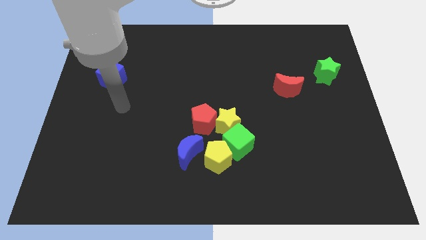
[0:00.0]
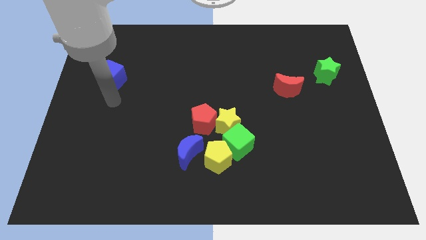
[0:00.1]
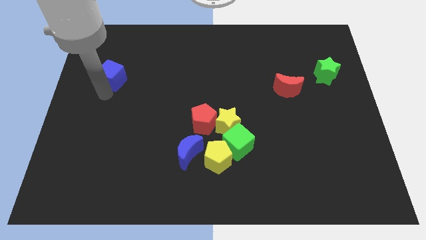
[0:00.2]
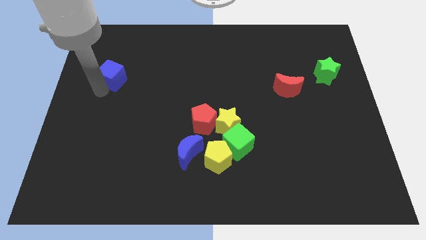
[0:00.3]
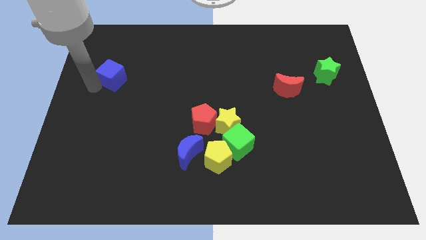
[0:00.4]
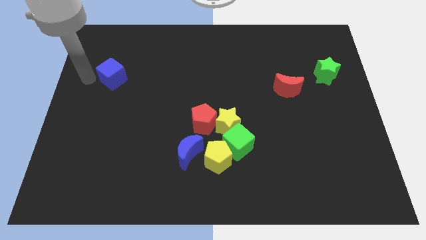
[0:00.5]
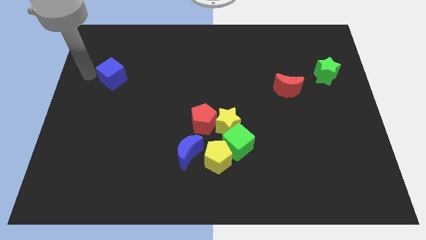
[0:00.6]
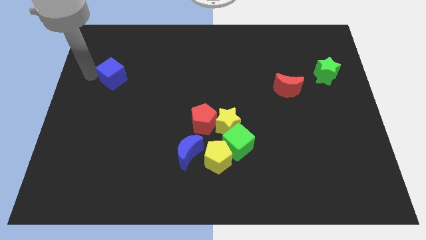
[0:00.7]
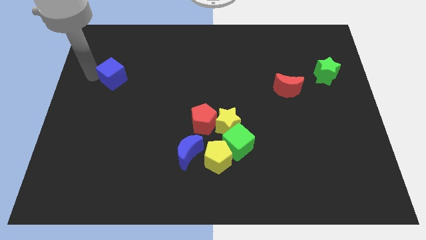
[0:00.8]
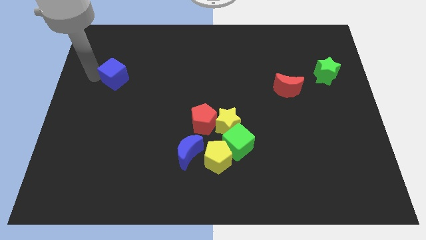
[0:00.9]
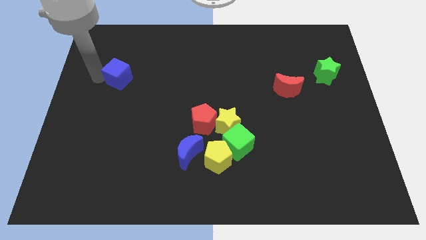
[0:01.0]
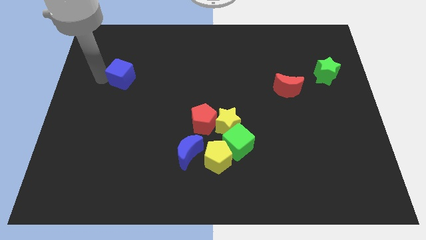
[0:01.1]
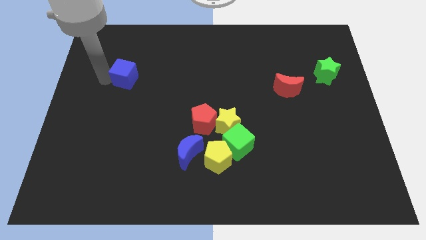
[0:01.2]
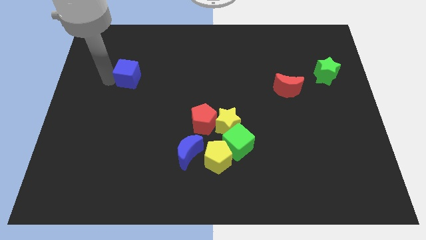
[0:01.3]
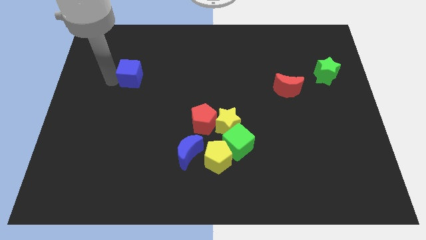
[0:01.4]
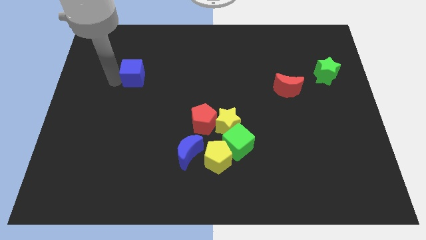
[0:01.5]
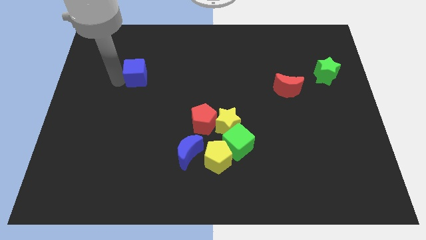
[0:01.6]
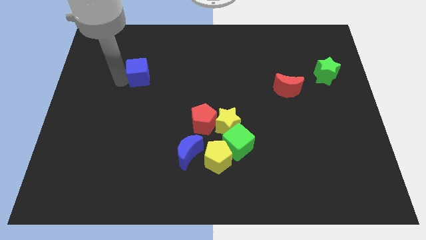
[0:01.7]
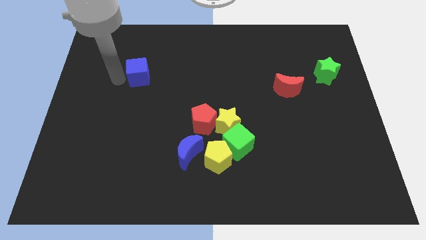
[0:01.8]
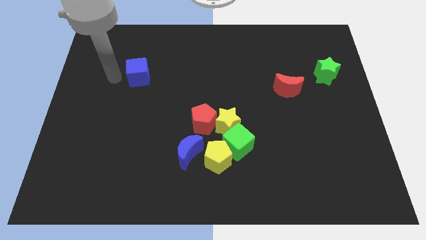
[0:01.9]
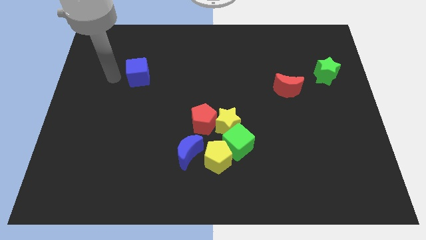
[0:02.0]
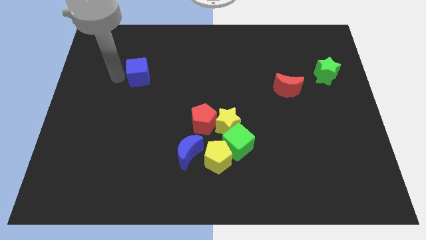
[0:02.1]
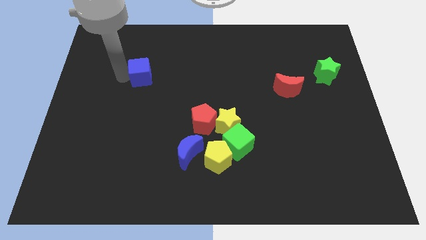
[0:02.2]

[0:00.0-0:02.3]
slide the blue cube to the right somewhat

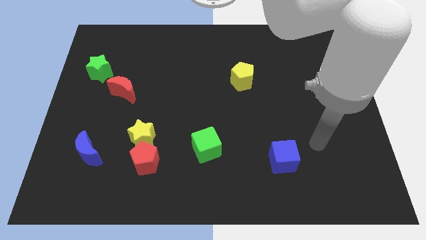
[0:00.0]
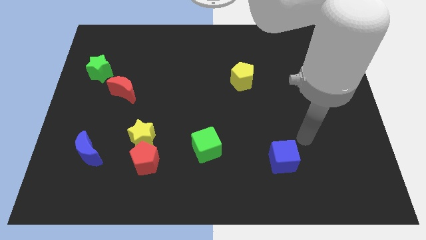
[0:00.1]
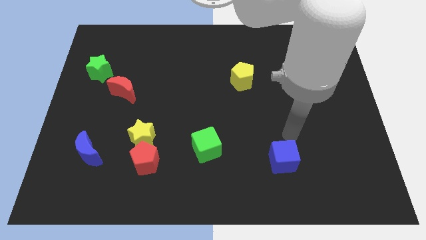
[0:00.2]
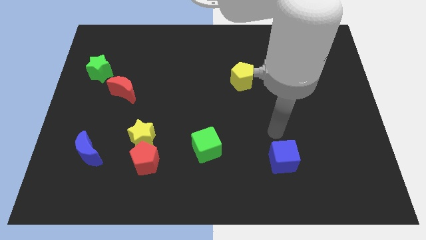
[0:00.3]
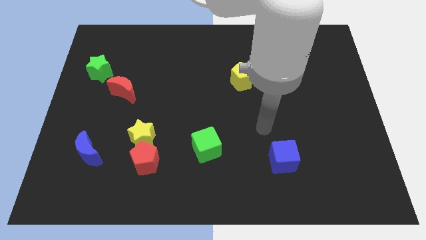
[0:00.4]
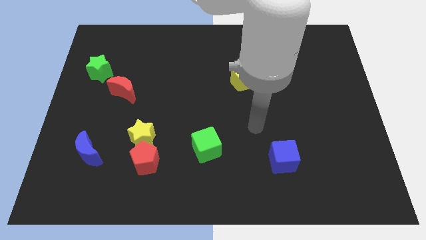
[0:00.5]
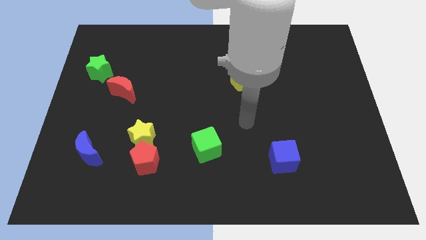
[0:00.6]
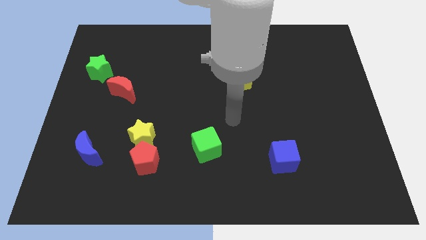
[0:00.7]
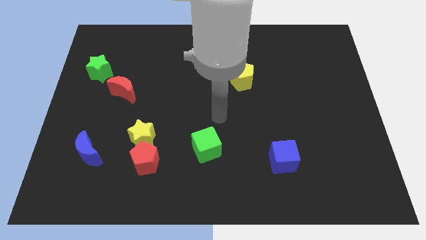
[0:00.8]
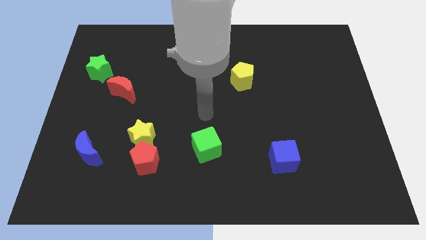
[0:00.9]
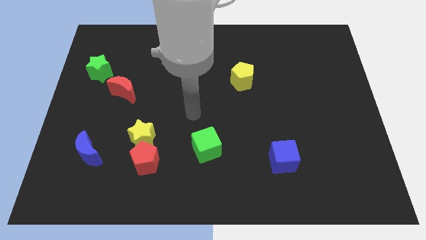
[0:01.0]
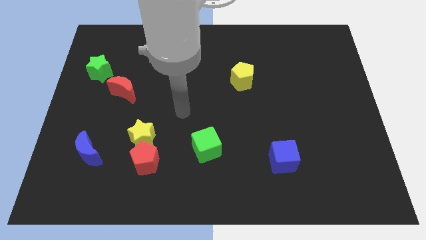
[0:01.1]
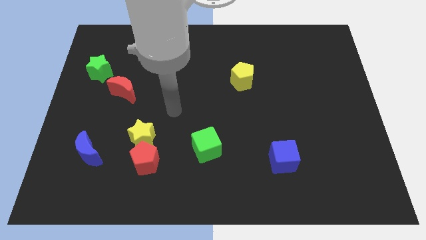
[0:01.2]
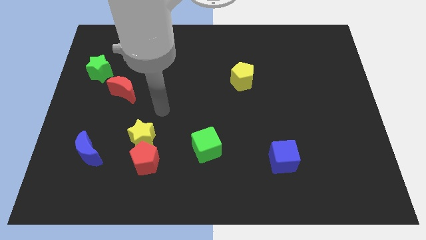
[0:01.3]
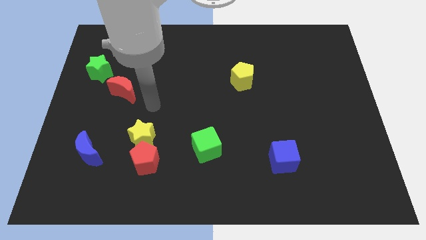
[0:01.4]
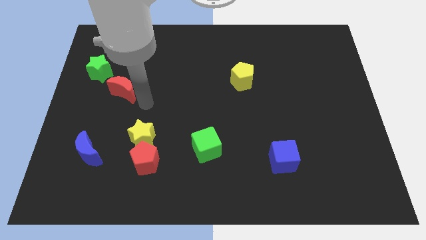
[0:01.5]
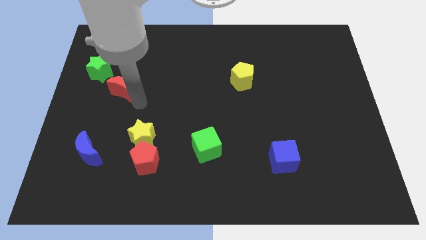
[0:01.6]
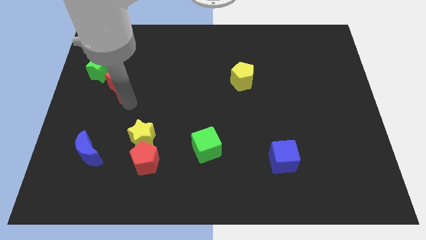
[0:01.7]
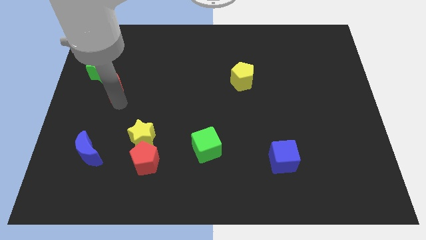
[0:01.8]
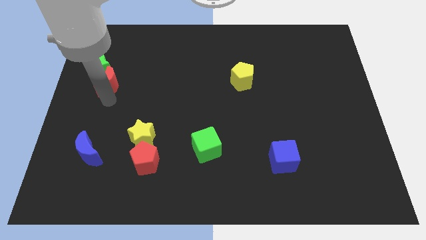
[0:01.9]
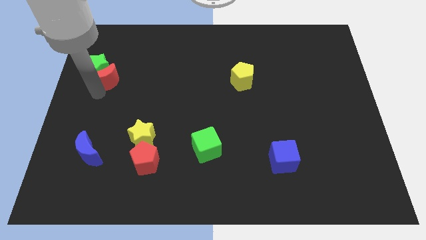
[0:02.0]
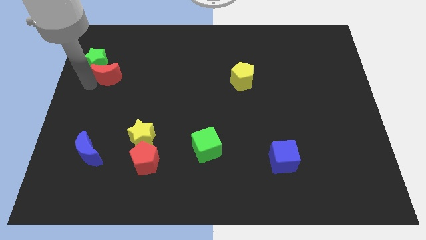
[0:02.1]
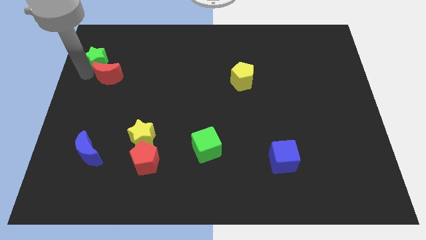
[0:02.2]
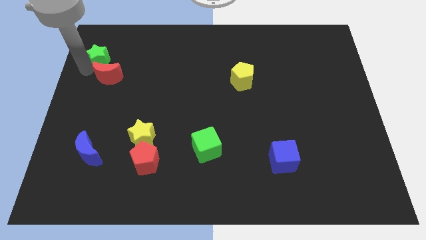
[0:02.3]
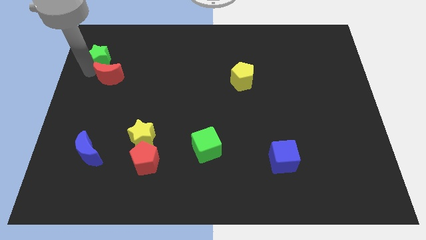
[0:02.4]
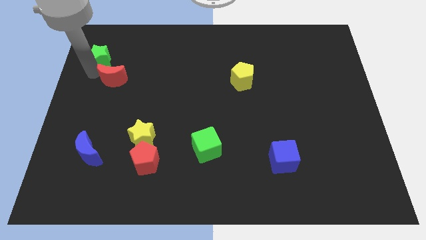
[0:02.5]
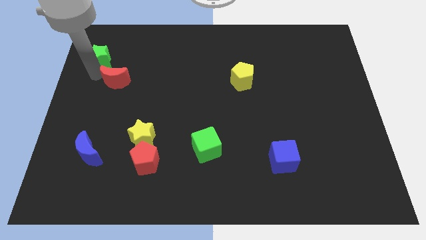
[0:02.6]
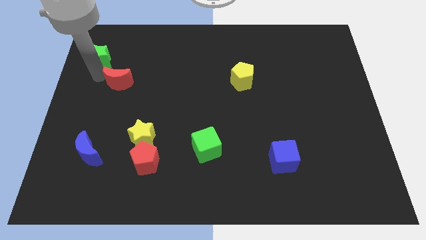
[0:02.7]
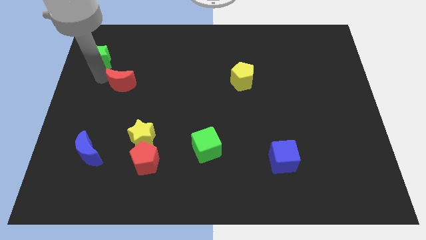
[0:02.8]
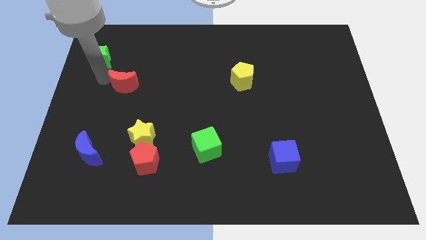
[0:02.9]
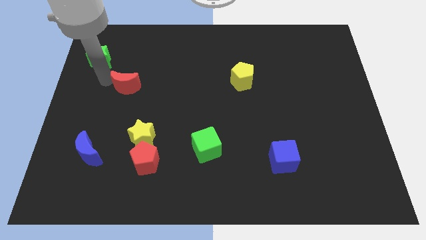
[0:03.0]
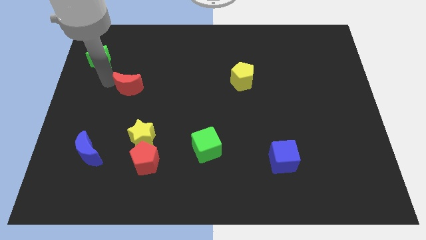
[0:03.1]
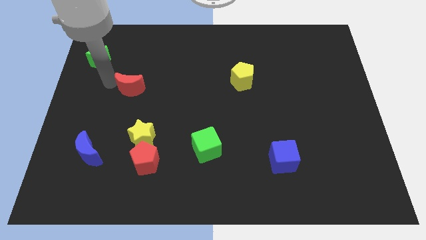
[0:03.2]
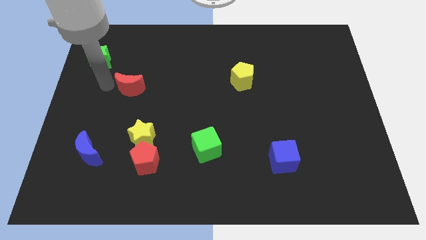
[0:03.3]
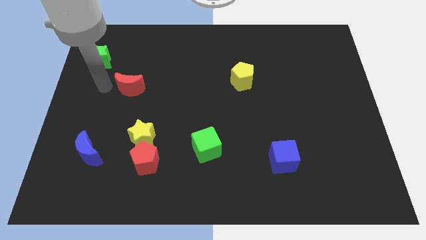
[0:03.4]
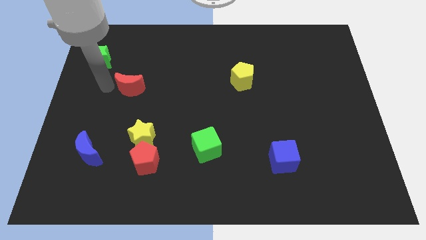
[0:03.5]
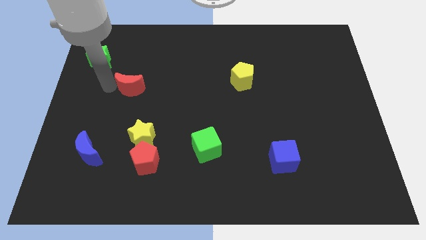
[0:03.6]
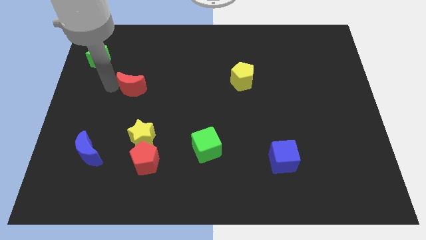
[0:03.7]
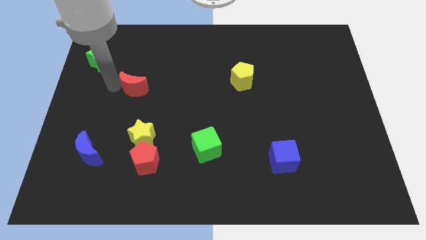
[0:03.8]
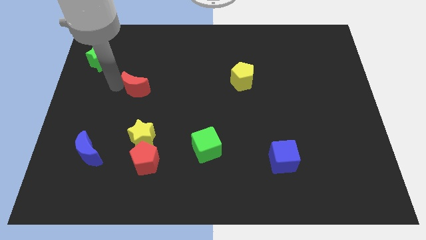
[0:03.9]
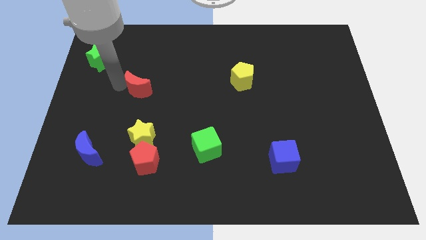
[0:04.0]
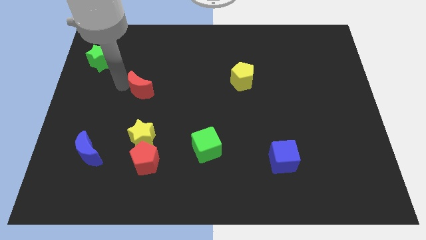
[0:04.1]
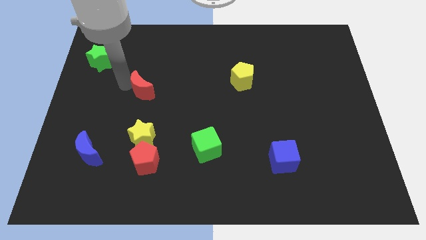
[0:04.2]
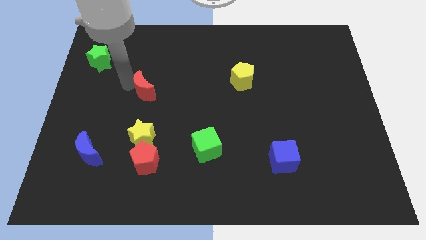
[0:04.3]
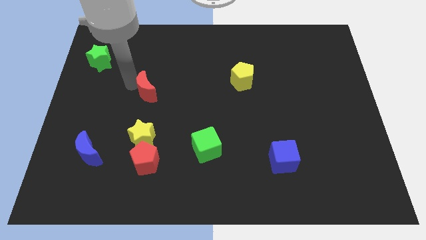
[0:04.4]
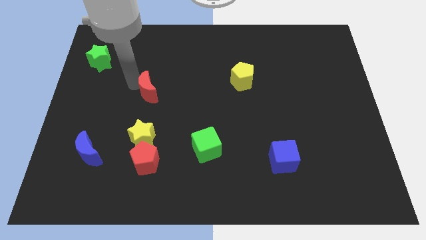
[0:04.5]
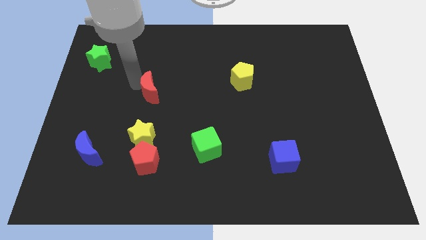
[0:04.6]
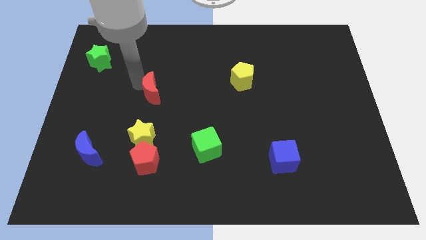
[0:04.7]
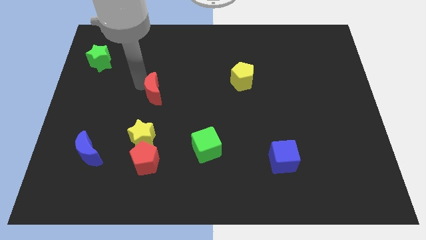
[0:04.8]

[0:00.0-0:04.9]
slightly slide the red moon right

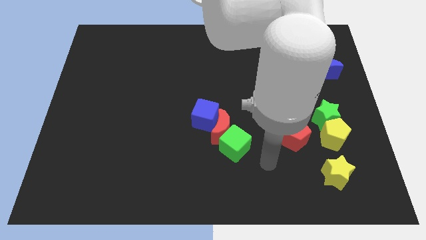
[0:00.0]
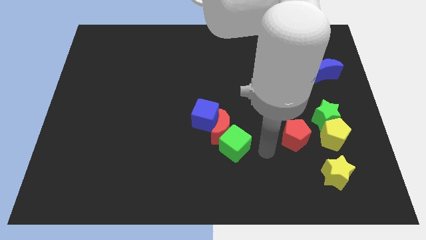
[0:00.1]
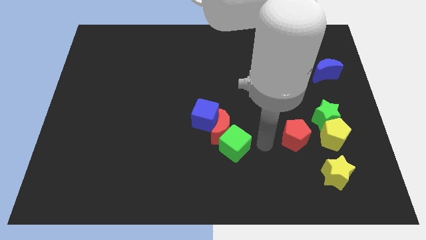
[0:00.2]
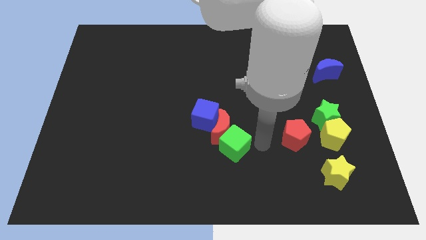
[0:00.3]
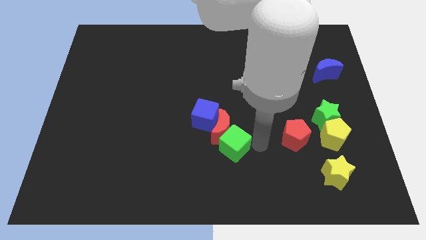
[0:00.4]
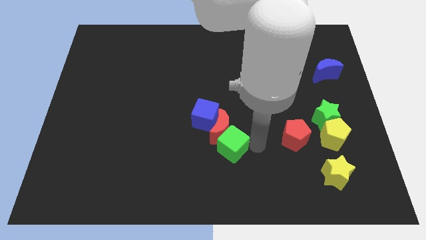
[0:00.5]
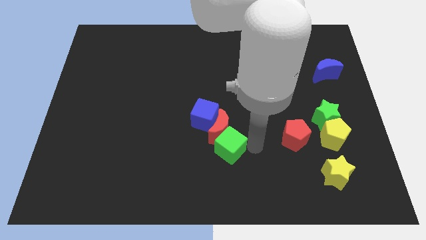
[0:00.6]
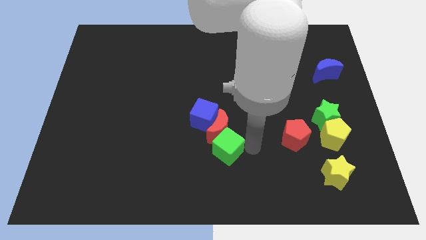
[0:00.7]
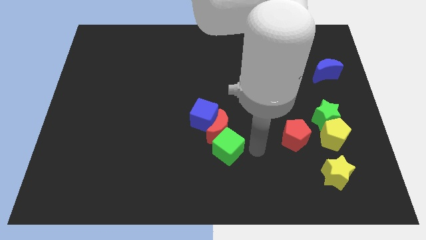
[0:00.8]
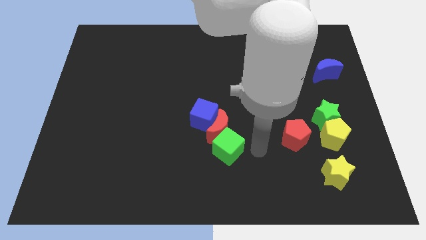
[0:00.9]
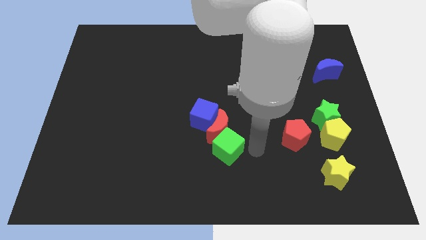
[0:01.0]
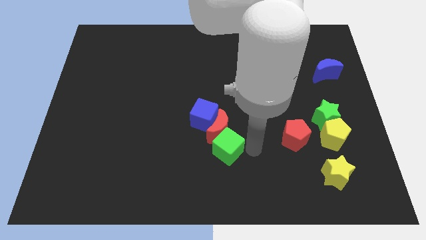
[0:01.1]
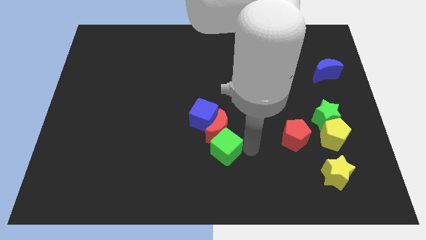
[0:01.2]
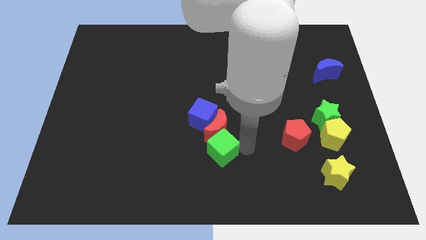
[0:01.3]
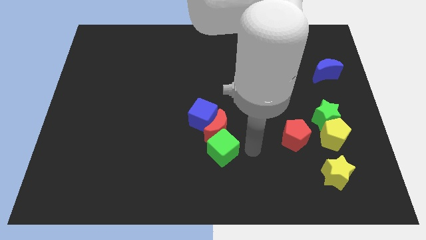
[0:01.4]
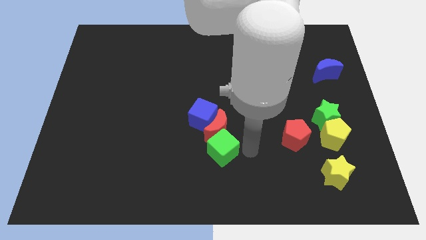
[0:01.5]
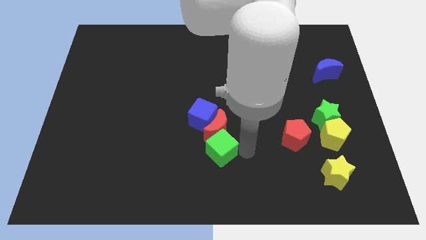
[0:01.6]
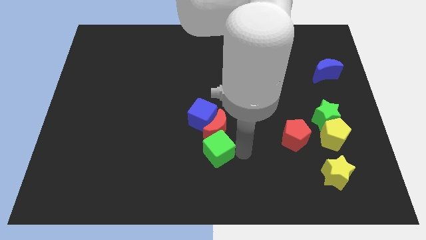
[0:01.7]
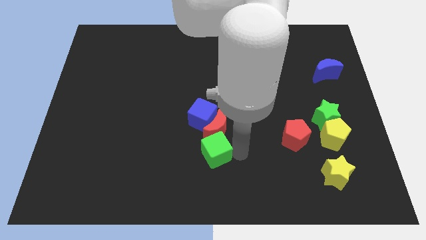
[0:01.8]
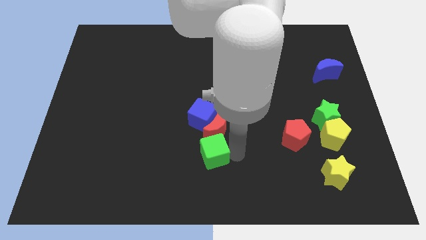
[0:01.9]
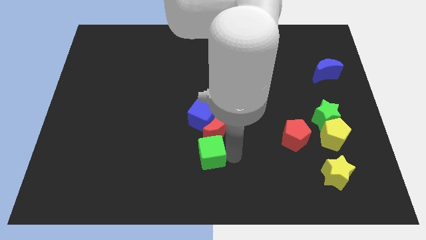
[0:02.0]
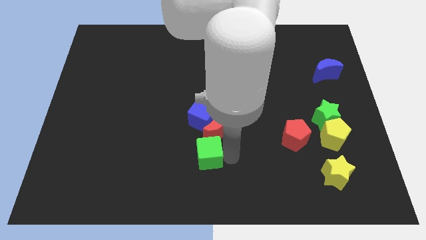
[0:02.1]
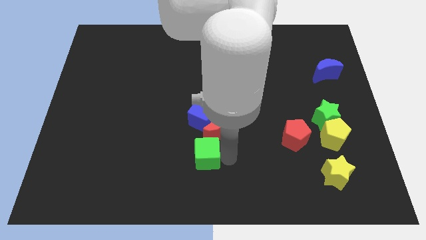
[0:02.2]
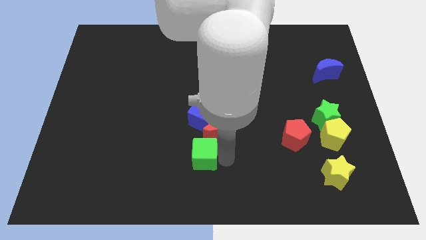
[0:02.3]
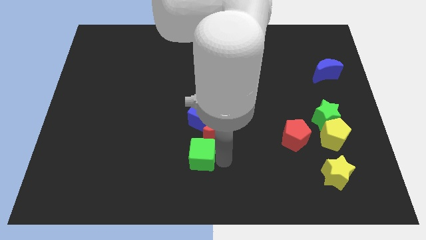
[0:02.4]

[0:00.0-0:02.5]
slightly move the green cube left
